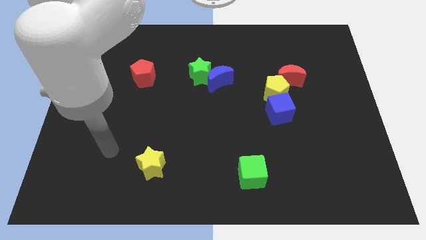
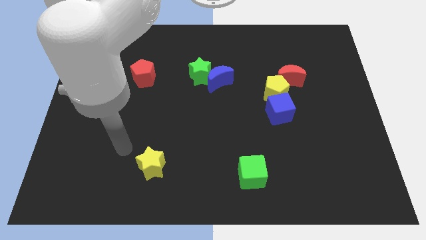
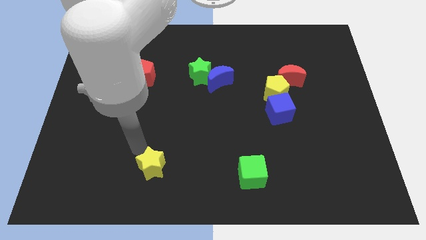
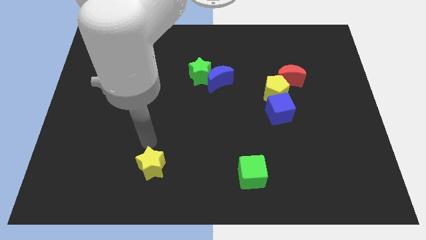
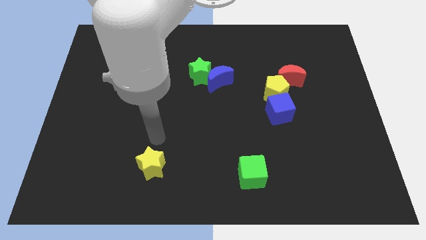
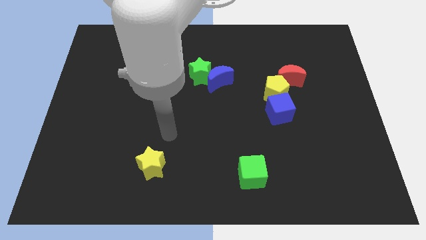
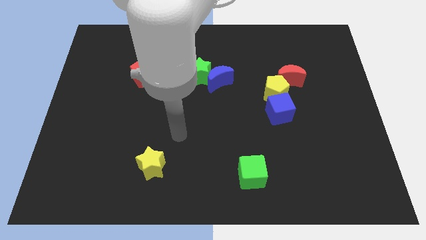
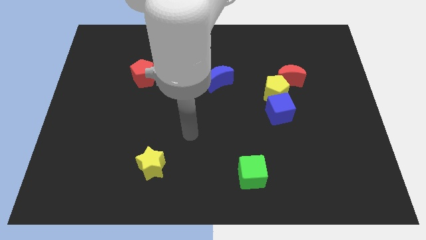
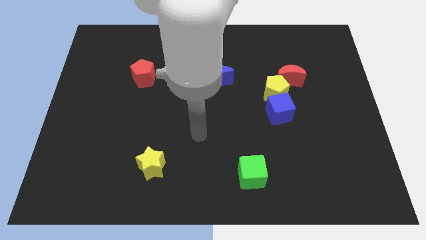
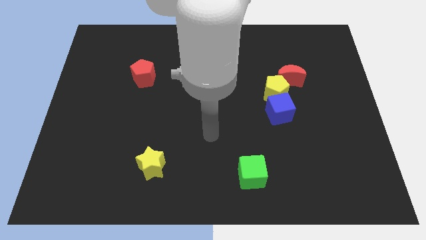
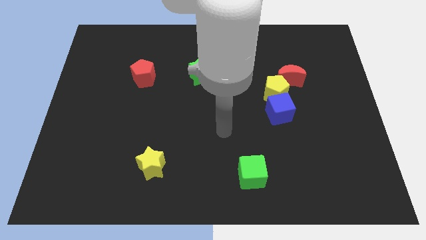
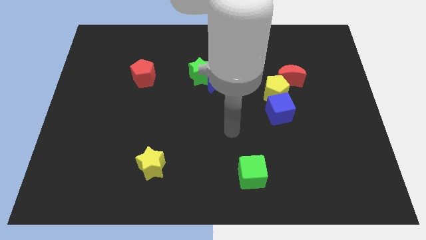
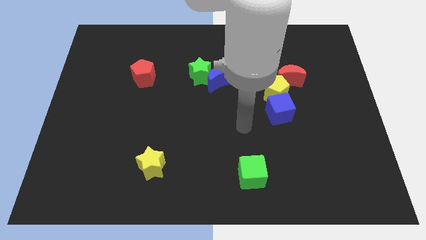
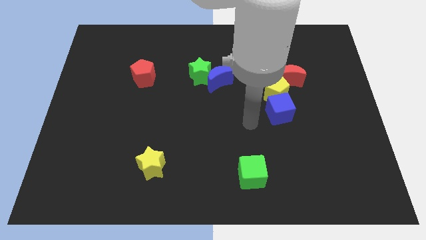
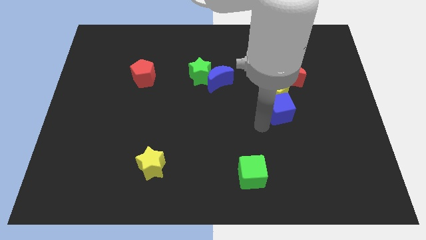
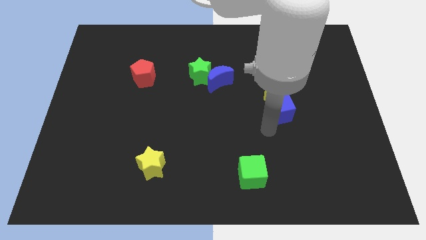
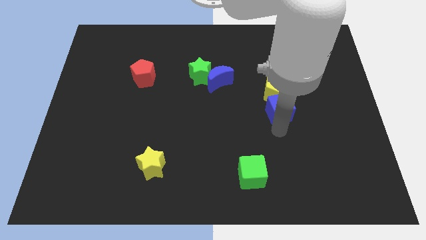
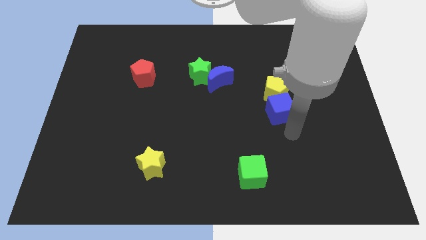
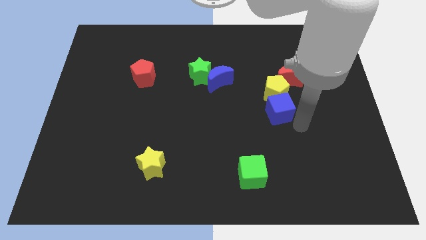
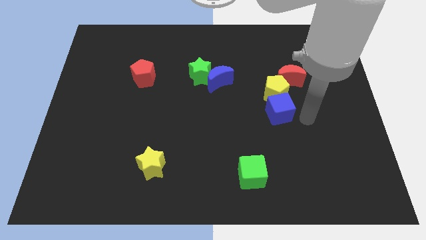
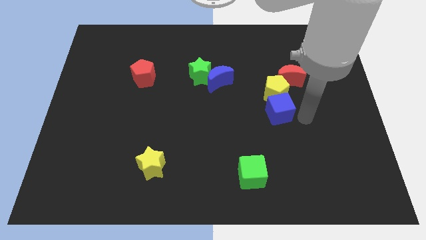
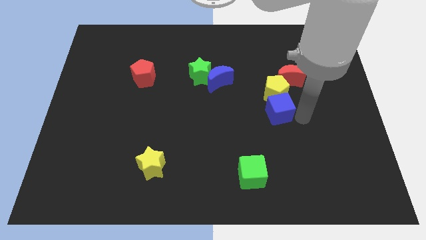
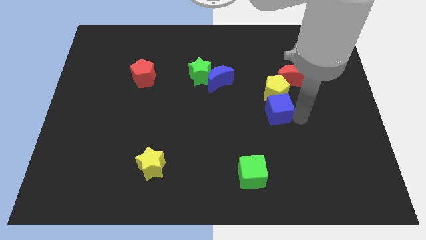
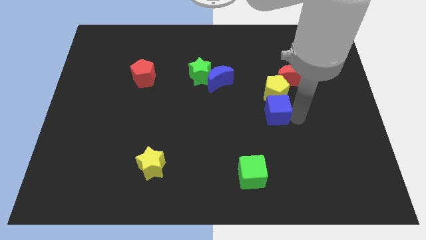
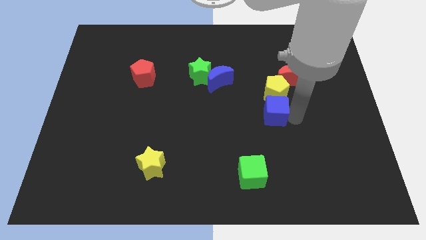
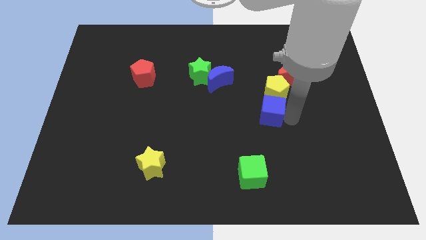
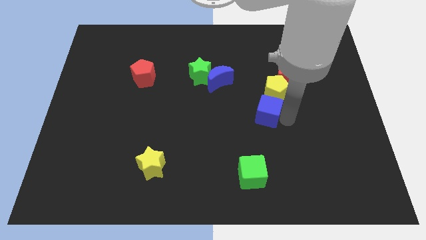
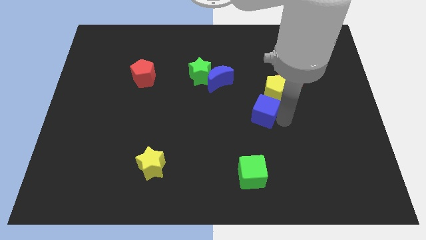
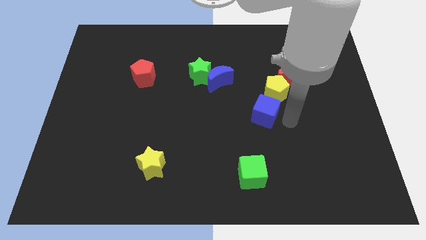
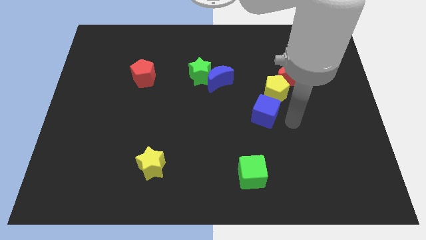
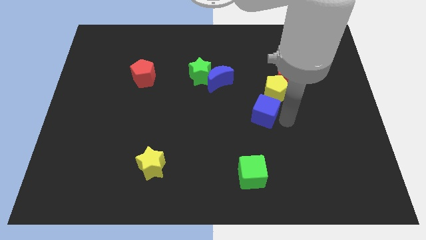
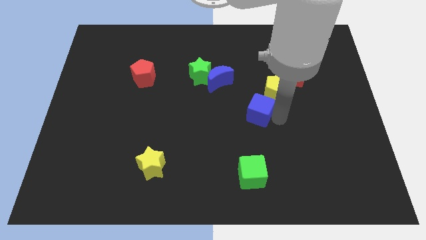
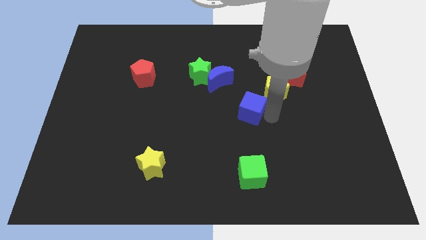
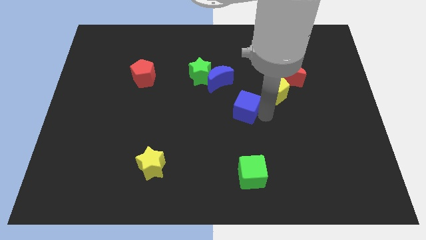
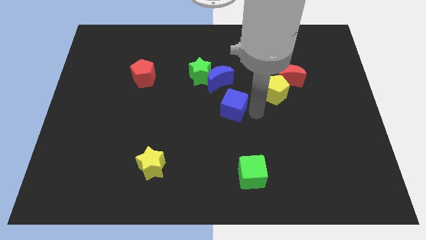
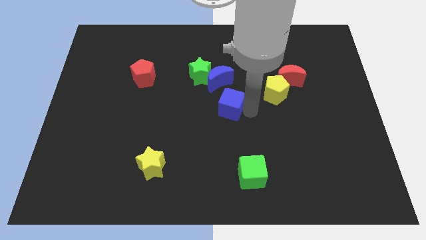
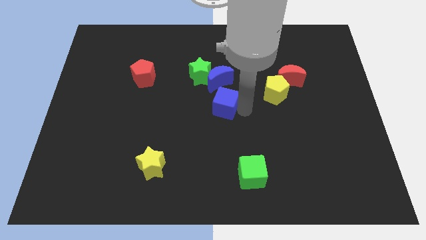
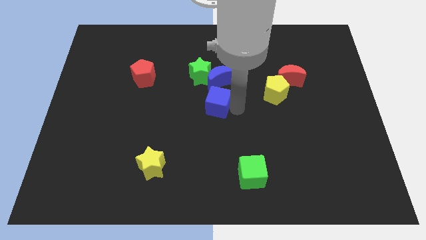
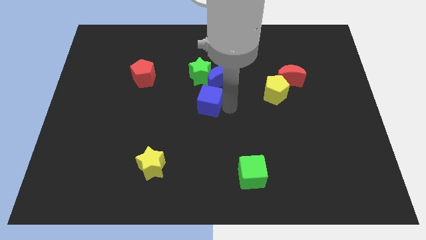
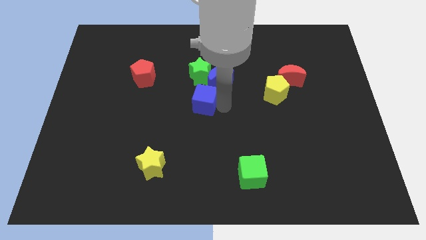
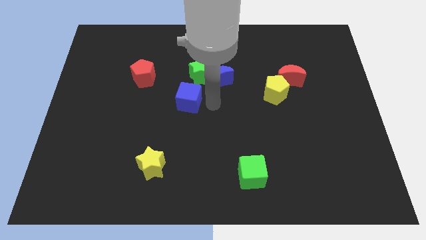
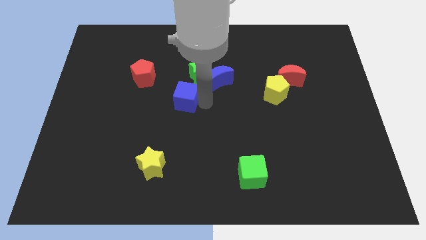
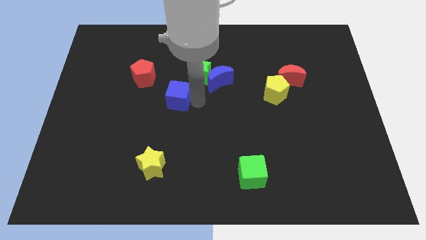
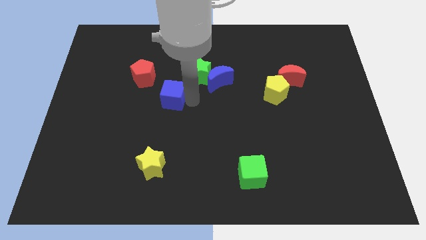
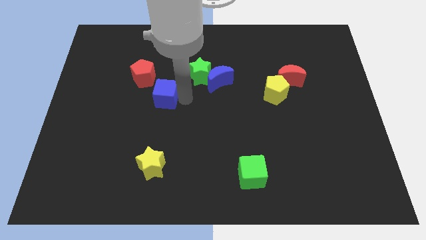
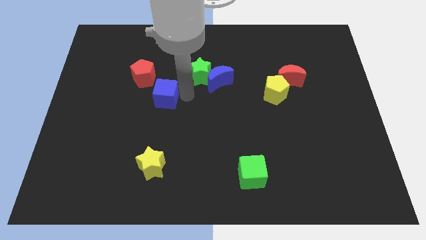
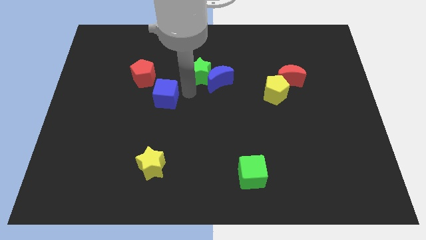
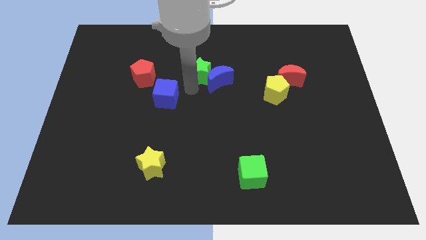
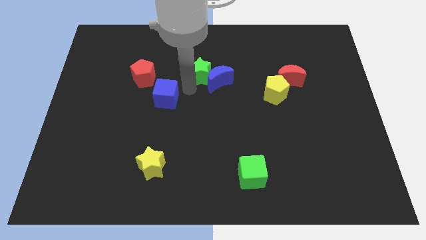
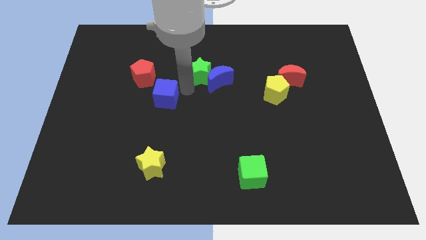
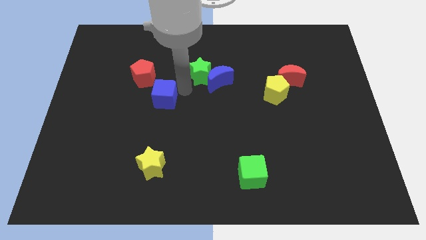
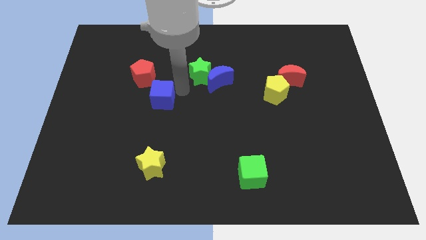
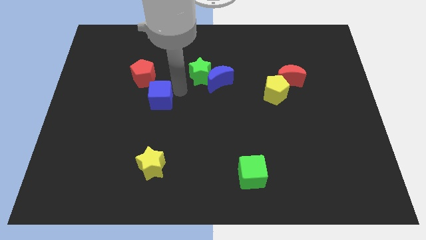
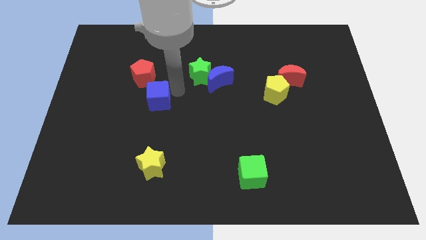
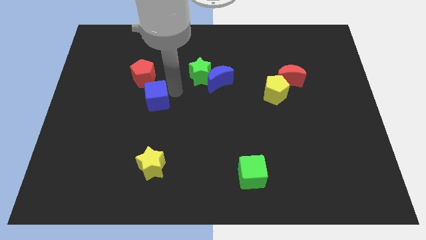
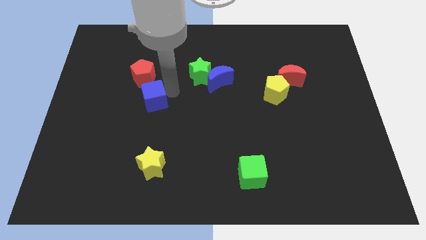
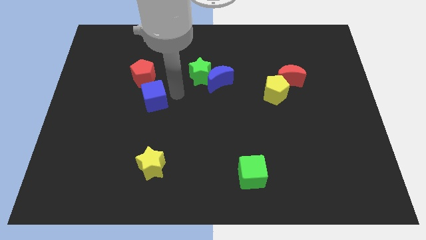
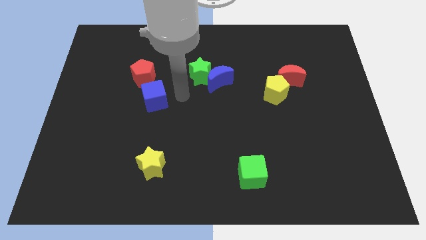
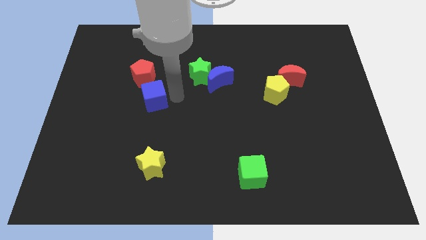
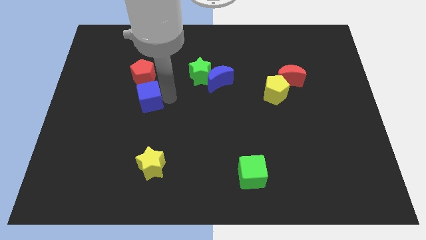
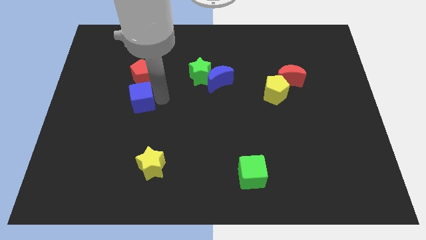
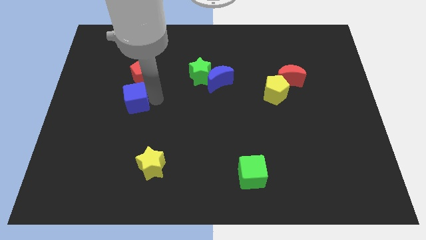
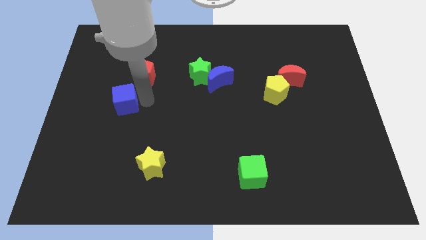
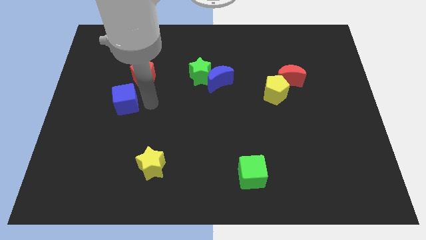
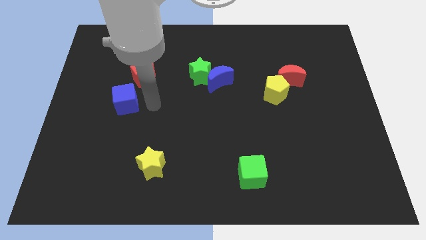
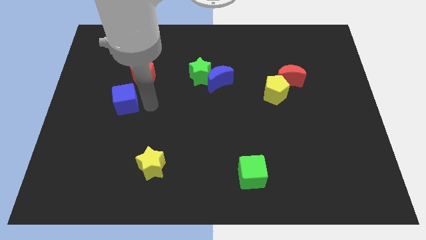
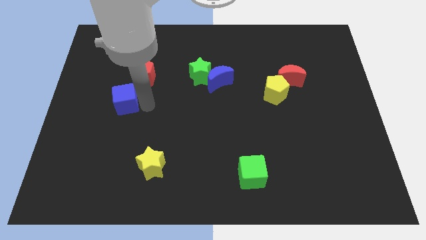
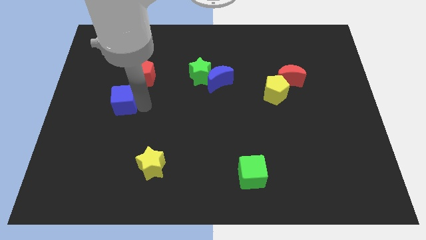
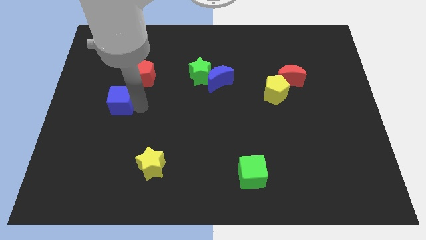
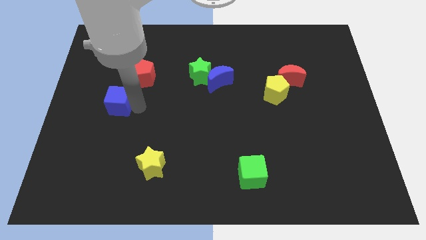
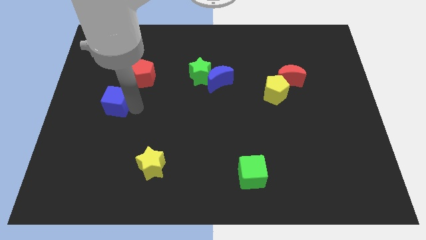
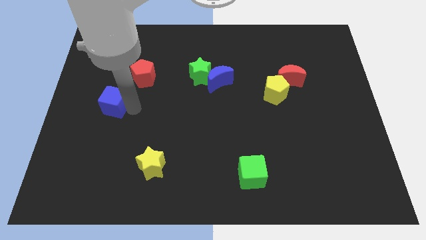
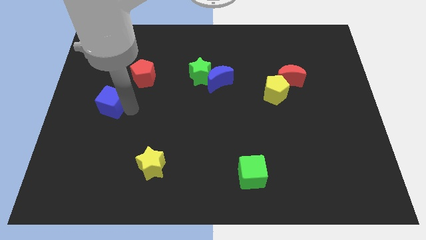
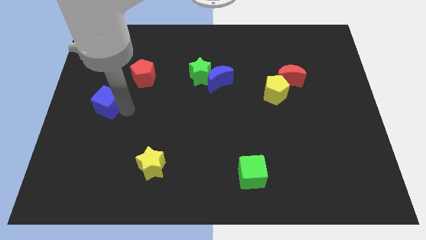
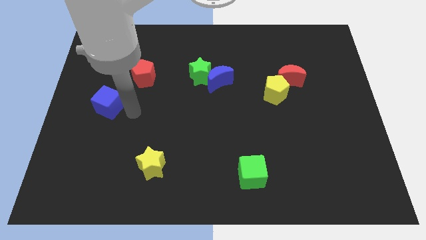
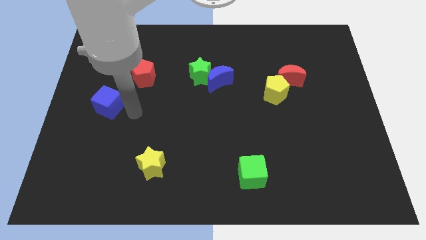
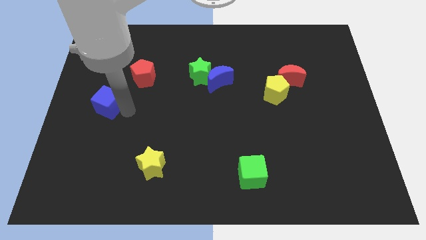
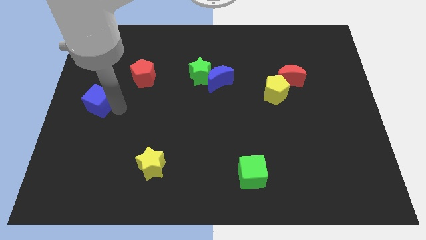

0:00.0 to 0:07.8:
move the blue cube to the center left
